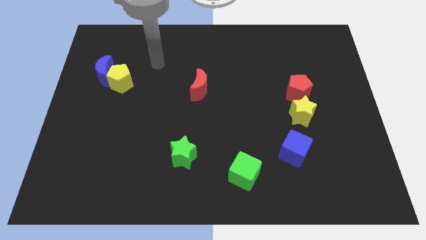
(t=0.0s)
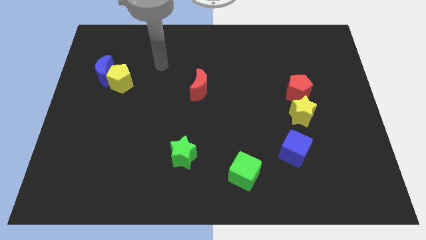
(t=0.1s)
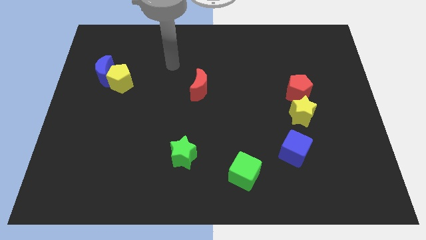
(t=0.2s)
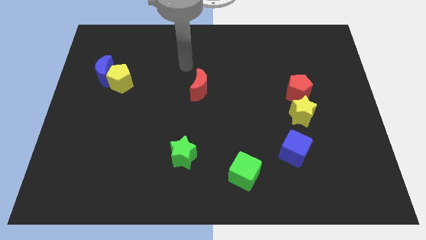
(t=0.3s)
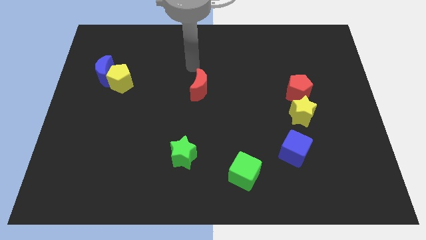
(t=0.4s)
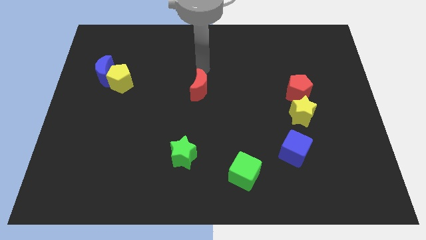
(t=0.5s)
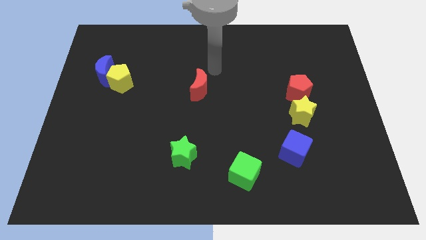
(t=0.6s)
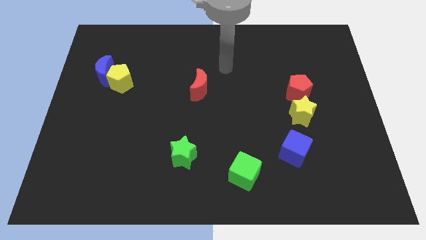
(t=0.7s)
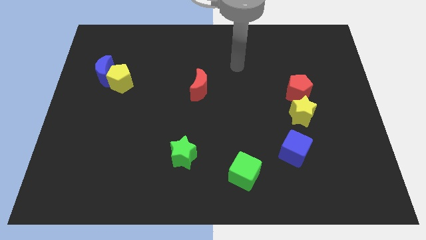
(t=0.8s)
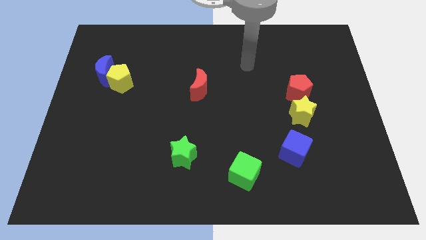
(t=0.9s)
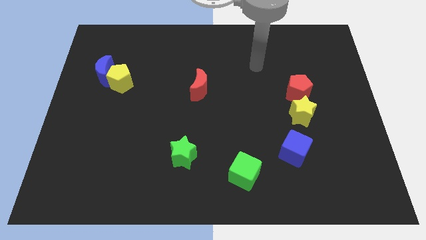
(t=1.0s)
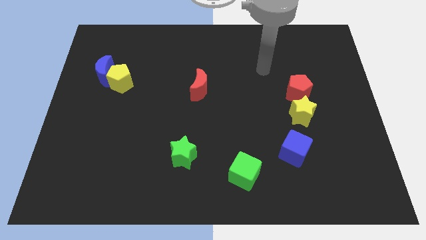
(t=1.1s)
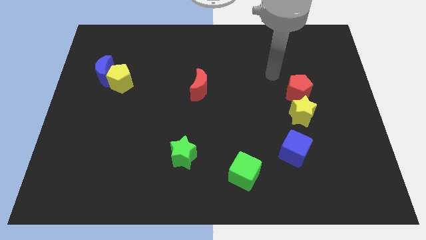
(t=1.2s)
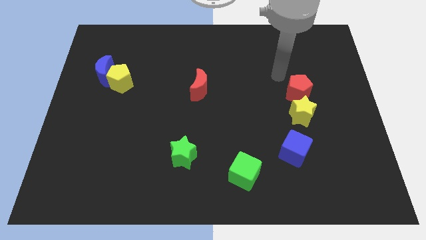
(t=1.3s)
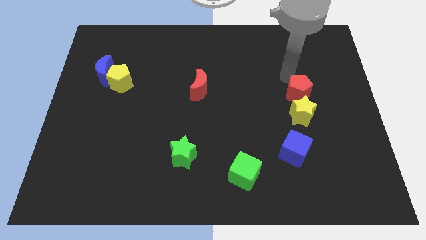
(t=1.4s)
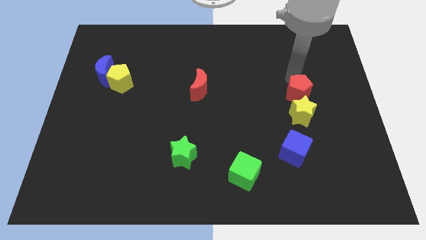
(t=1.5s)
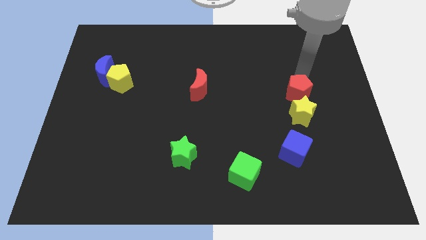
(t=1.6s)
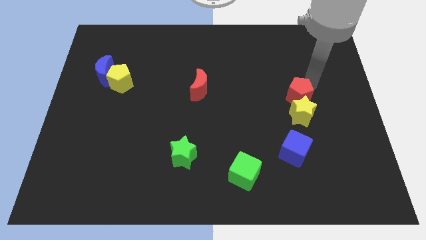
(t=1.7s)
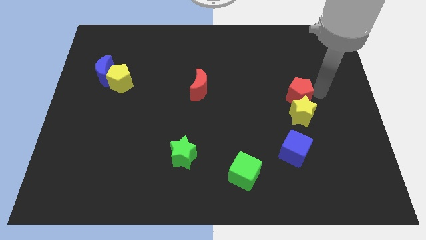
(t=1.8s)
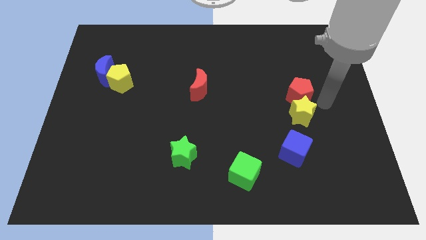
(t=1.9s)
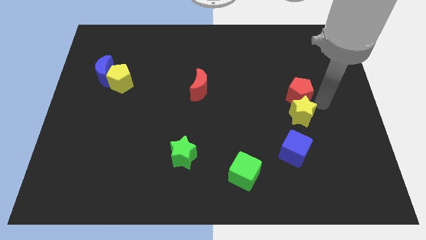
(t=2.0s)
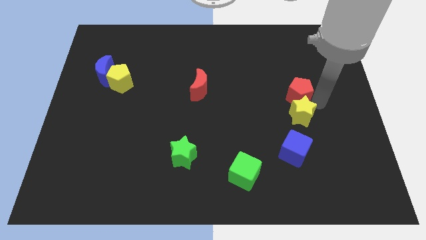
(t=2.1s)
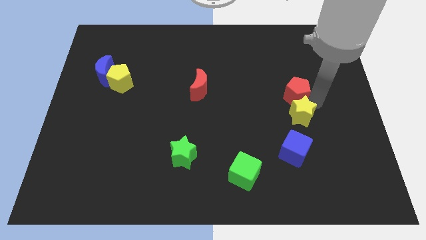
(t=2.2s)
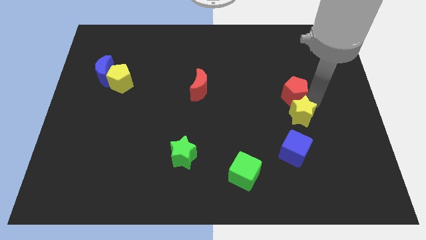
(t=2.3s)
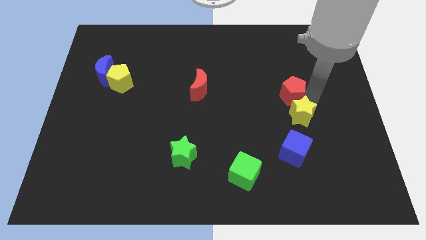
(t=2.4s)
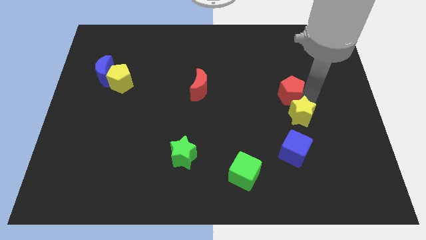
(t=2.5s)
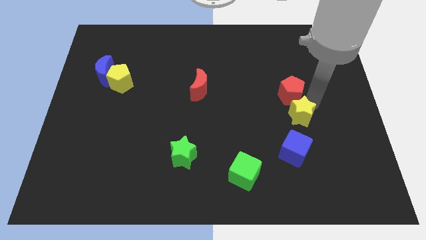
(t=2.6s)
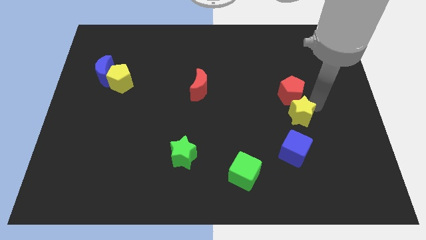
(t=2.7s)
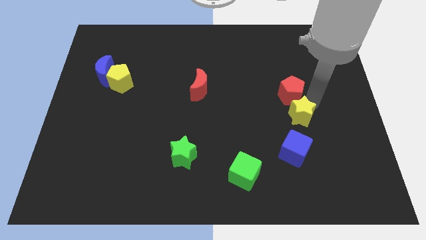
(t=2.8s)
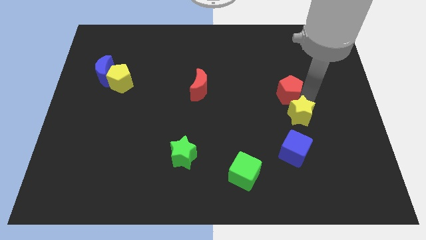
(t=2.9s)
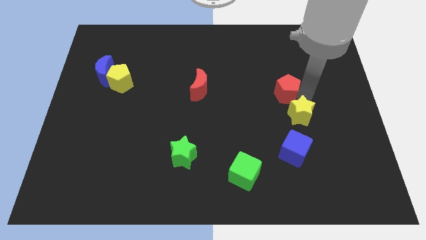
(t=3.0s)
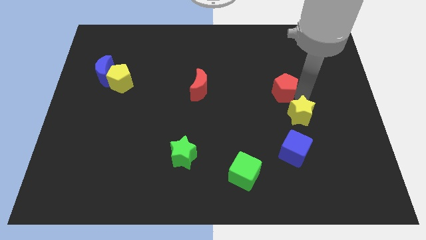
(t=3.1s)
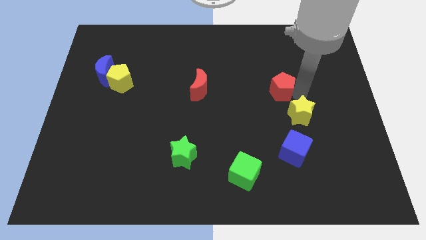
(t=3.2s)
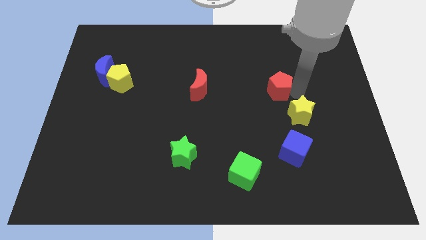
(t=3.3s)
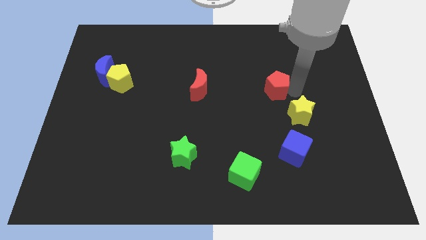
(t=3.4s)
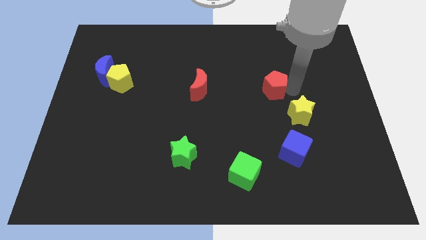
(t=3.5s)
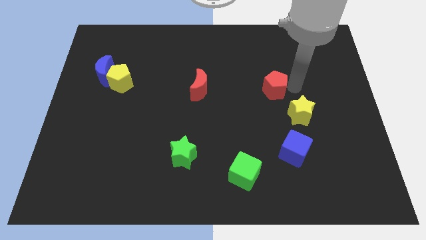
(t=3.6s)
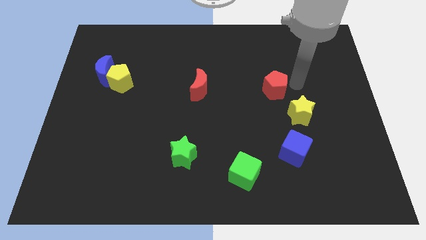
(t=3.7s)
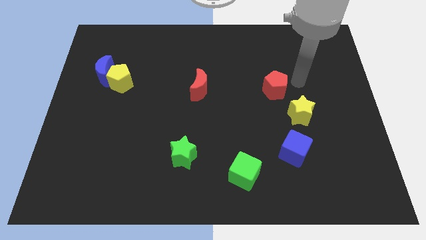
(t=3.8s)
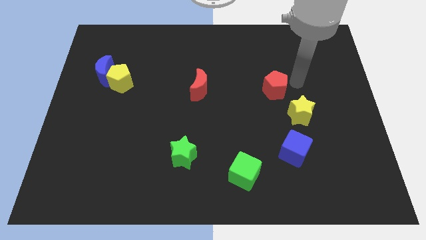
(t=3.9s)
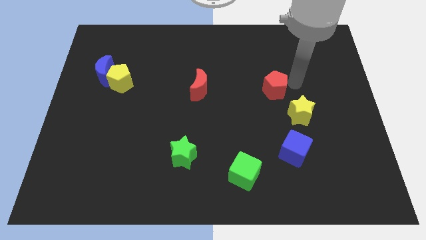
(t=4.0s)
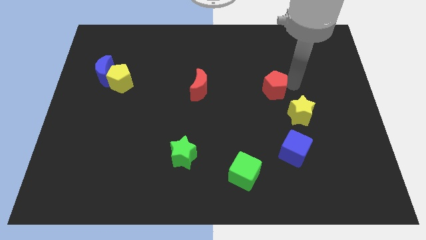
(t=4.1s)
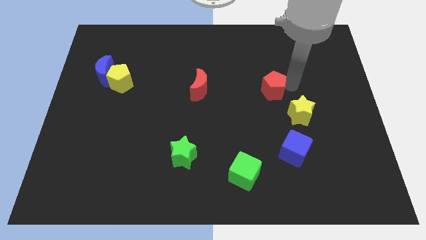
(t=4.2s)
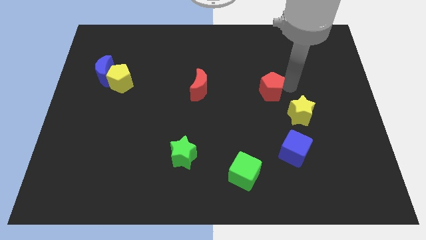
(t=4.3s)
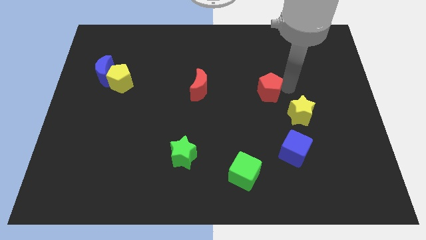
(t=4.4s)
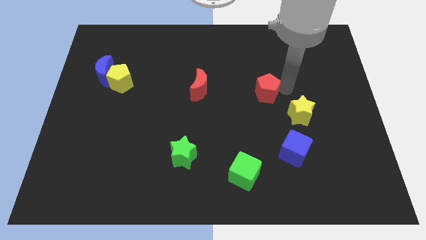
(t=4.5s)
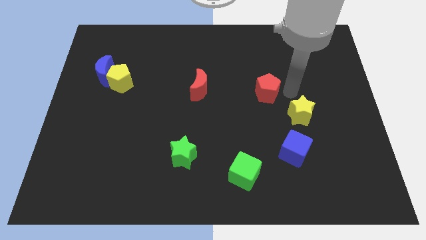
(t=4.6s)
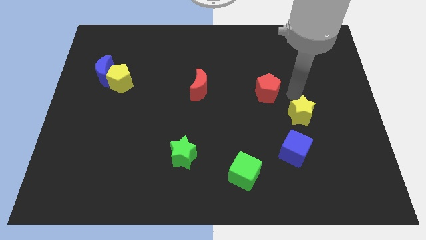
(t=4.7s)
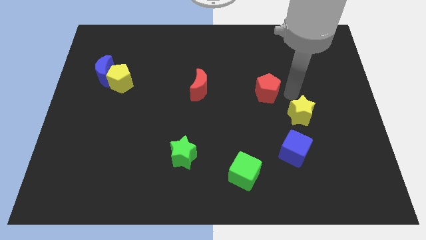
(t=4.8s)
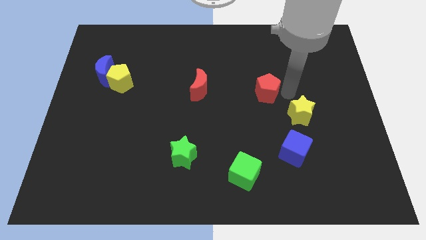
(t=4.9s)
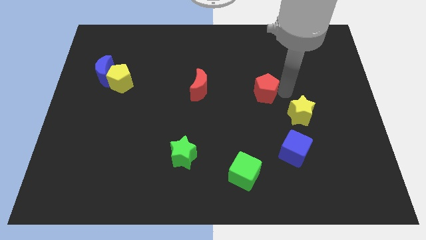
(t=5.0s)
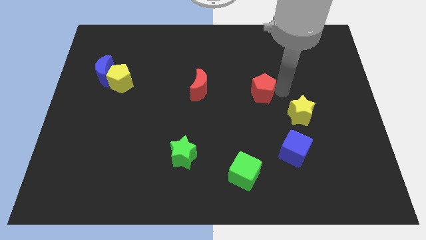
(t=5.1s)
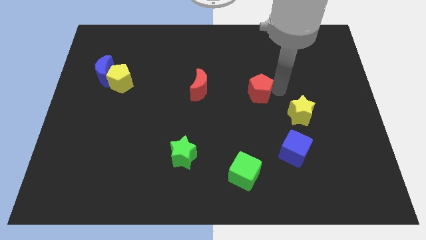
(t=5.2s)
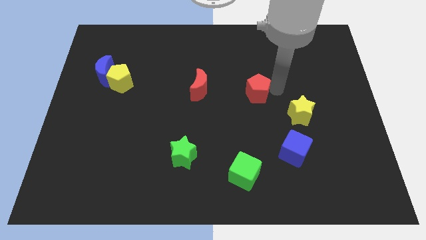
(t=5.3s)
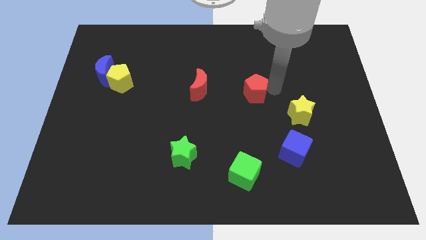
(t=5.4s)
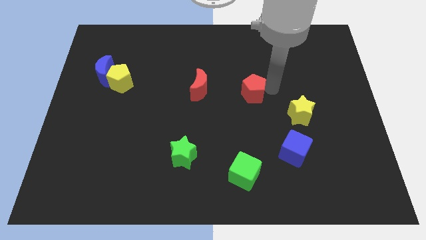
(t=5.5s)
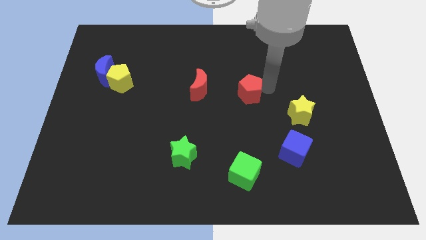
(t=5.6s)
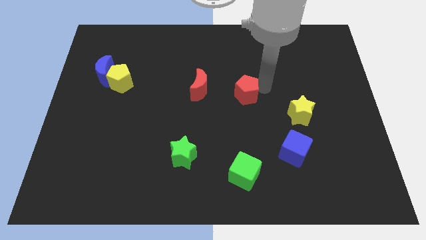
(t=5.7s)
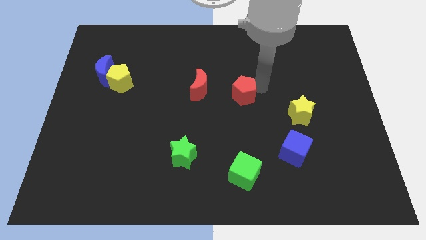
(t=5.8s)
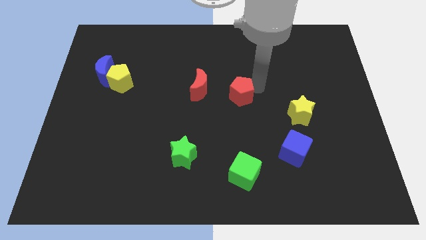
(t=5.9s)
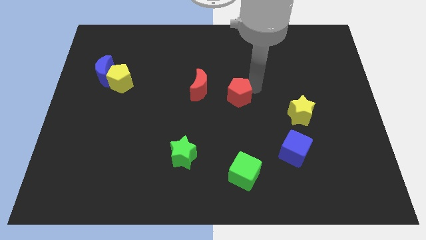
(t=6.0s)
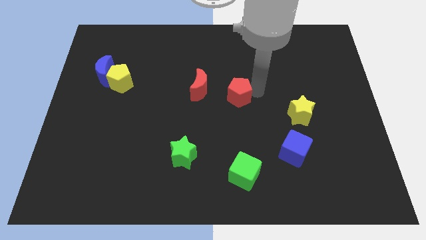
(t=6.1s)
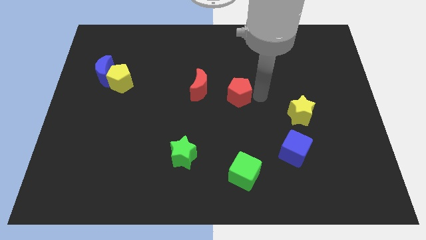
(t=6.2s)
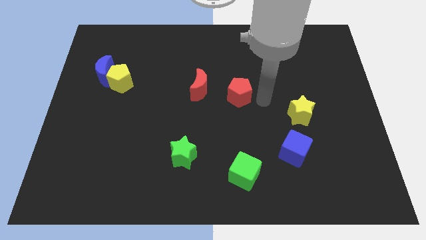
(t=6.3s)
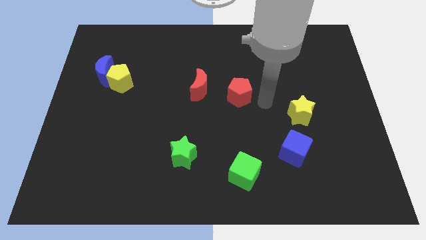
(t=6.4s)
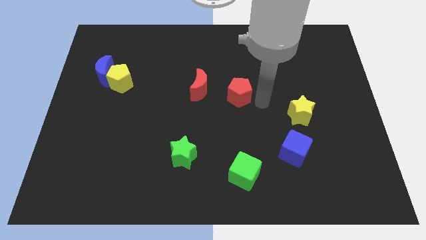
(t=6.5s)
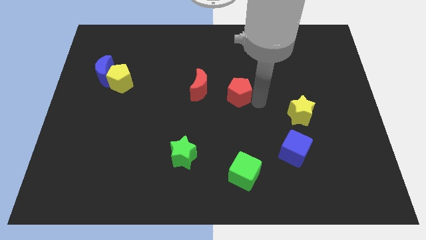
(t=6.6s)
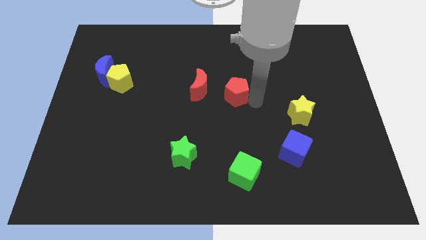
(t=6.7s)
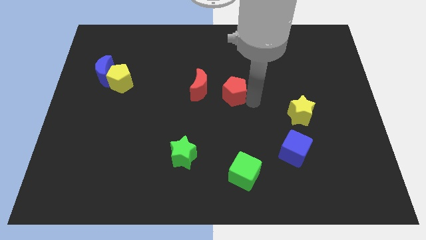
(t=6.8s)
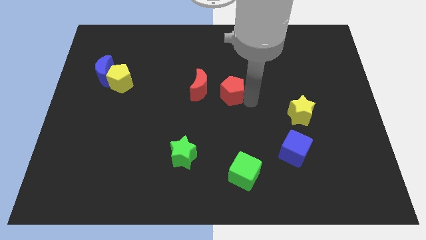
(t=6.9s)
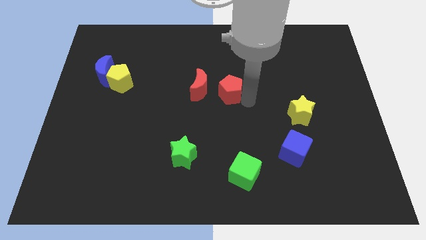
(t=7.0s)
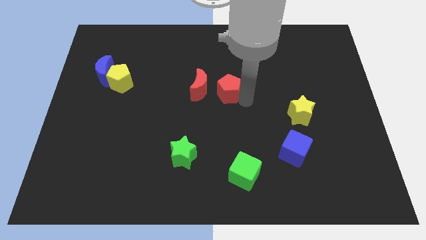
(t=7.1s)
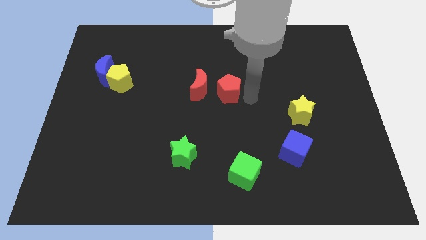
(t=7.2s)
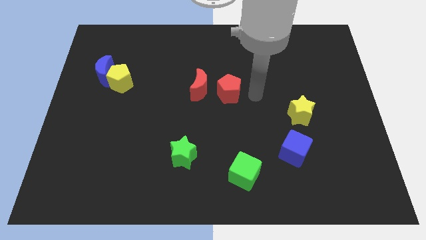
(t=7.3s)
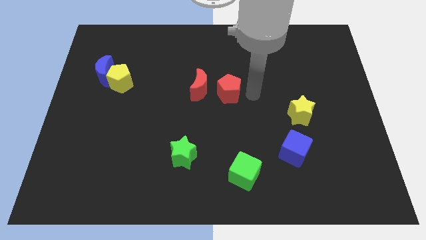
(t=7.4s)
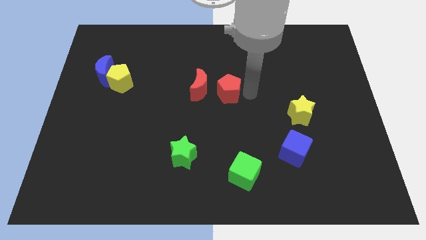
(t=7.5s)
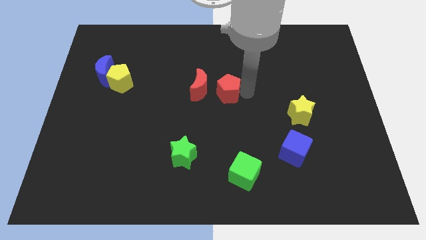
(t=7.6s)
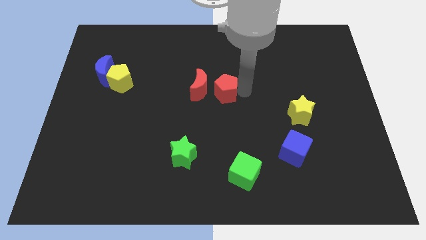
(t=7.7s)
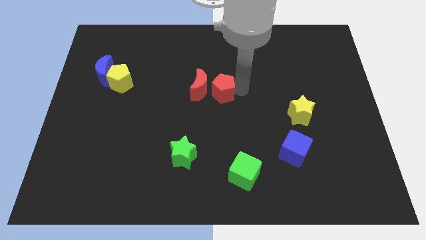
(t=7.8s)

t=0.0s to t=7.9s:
push the red pentagon close to the red moon
